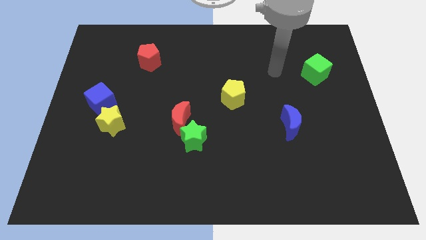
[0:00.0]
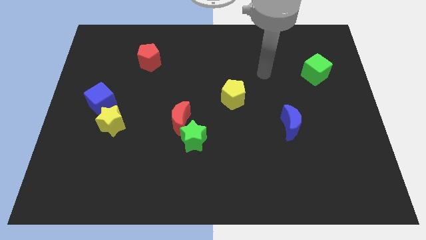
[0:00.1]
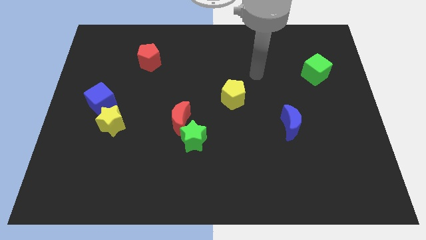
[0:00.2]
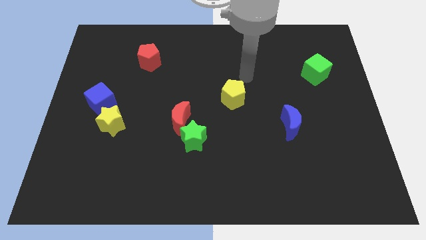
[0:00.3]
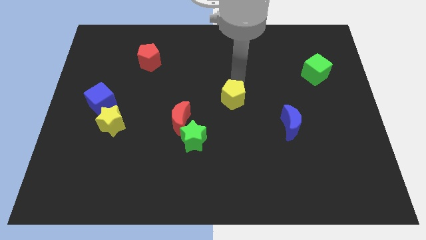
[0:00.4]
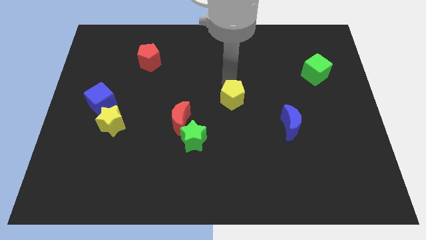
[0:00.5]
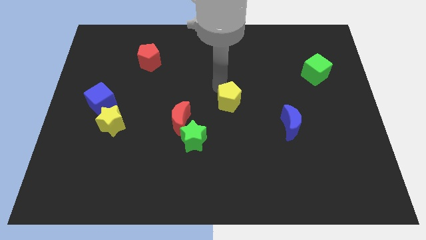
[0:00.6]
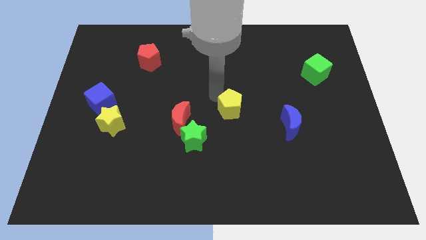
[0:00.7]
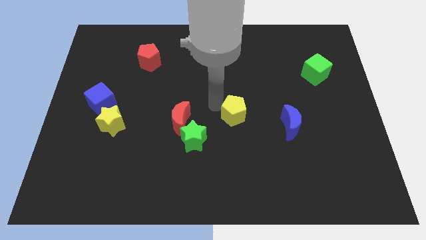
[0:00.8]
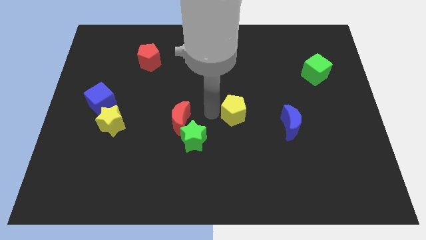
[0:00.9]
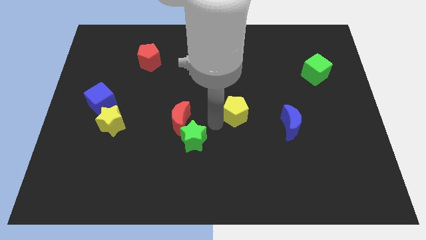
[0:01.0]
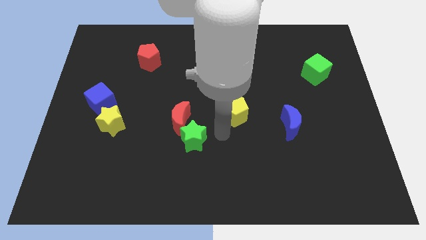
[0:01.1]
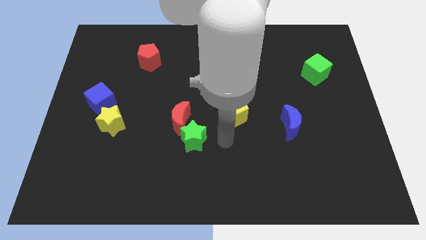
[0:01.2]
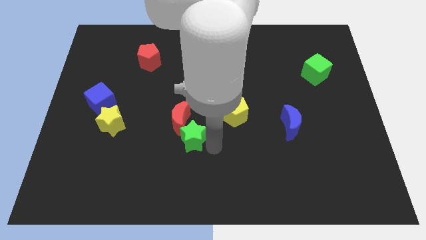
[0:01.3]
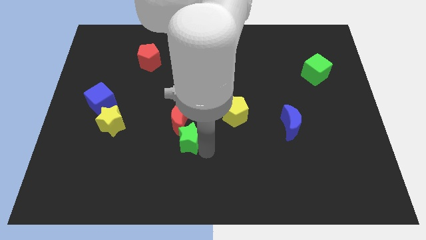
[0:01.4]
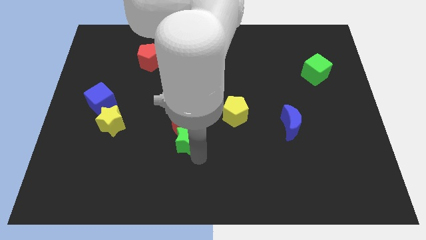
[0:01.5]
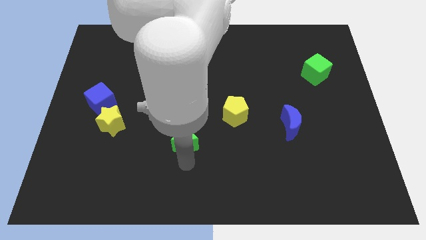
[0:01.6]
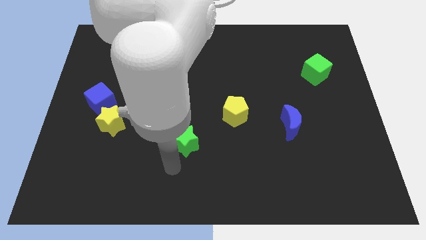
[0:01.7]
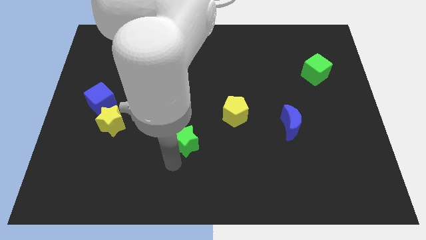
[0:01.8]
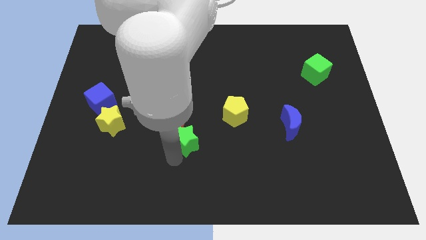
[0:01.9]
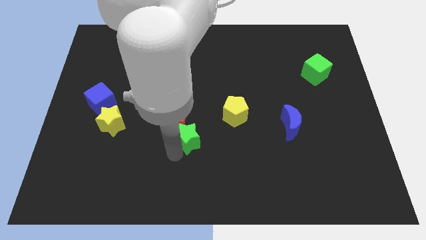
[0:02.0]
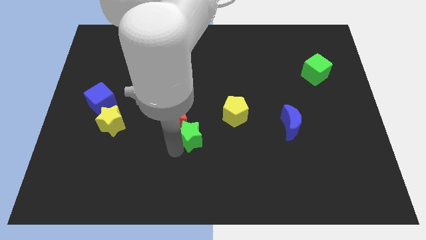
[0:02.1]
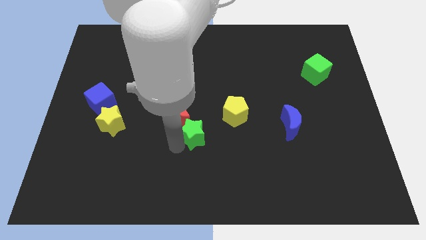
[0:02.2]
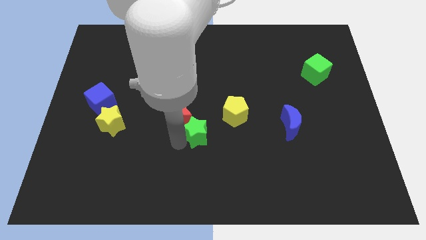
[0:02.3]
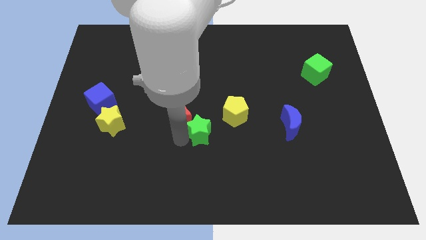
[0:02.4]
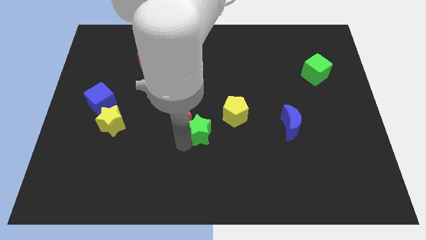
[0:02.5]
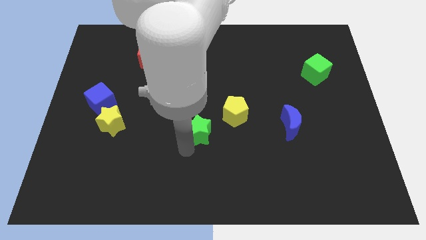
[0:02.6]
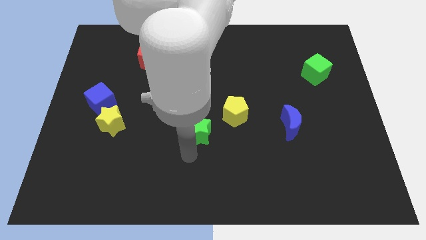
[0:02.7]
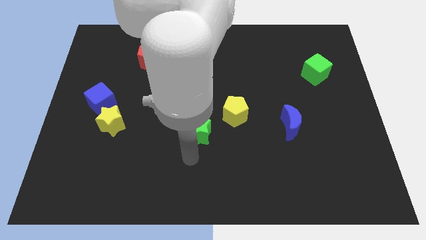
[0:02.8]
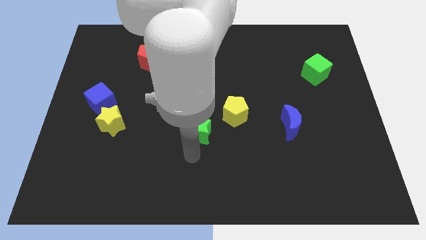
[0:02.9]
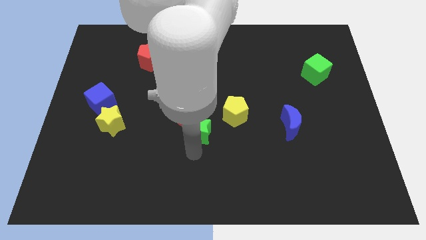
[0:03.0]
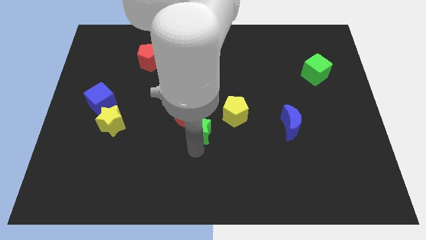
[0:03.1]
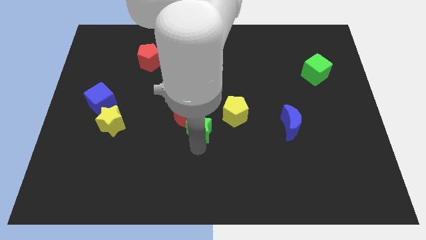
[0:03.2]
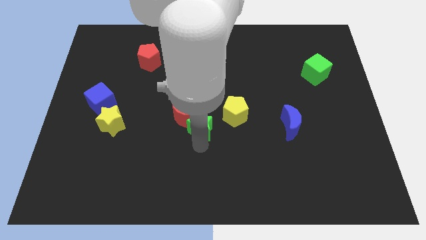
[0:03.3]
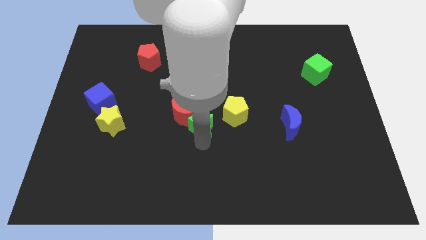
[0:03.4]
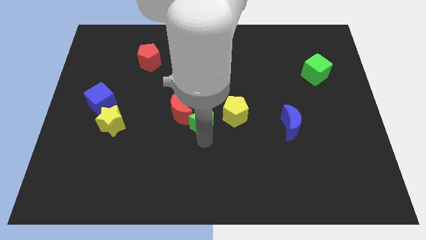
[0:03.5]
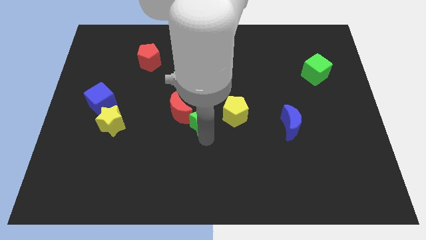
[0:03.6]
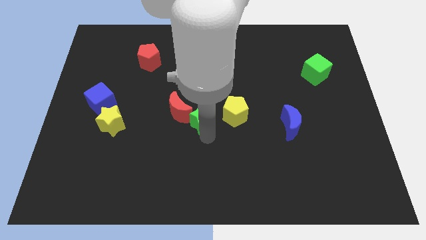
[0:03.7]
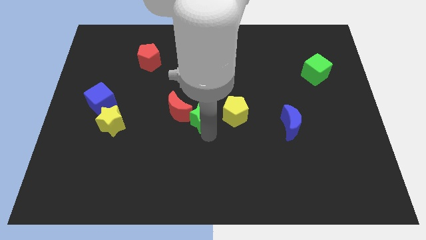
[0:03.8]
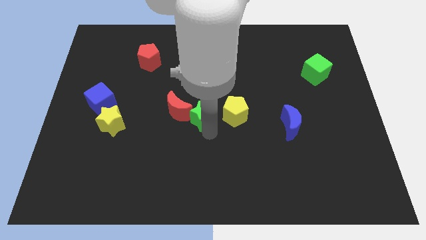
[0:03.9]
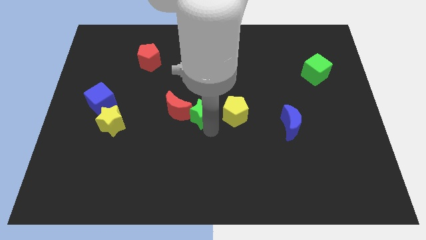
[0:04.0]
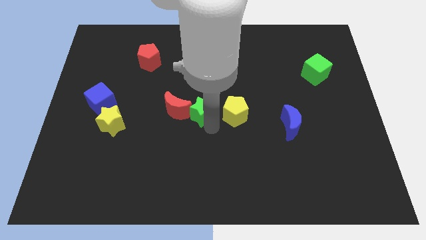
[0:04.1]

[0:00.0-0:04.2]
move the green star upwards a little bit

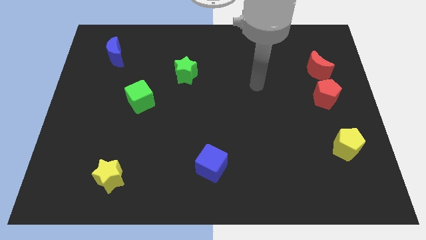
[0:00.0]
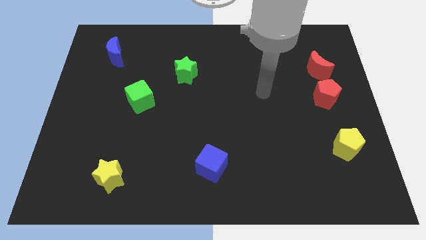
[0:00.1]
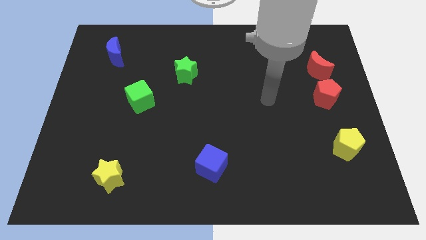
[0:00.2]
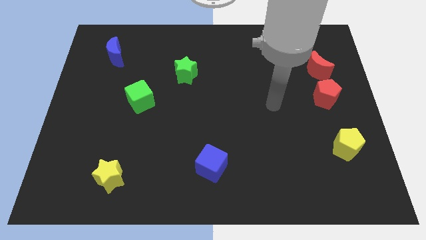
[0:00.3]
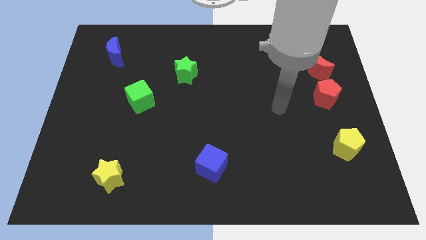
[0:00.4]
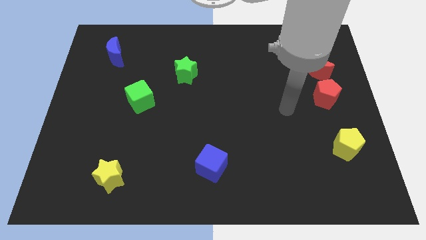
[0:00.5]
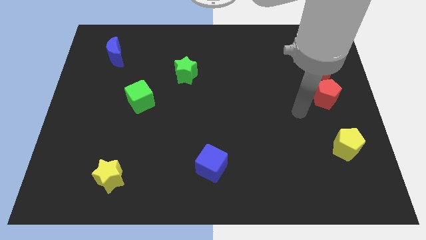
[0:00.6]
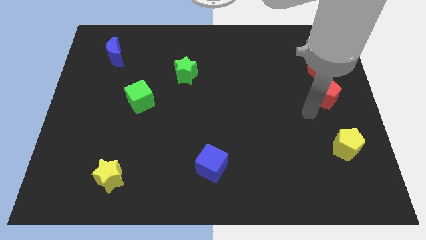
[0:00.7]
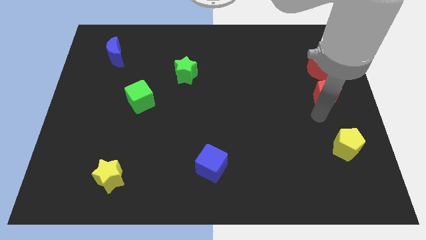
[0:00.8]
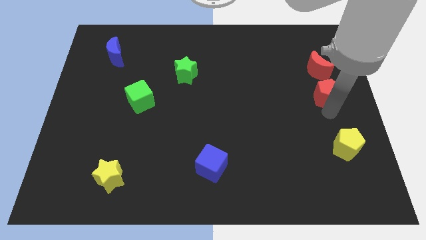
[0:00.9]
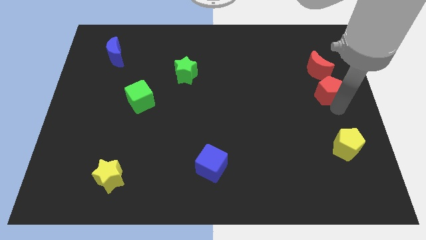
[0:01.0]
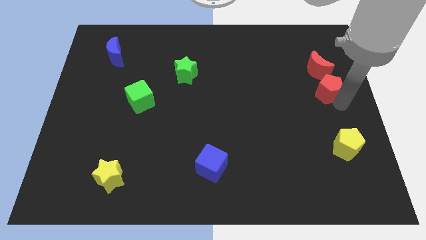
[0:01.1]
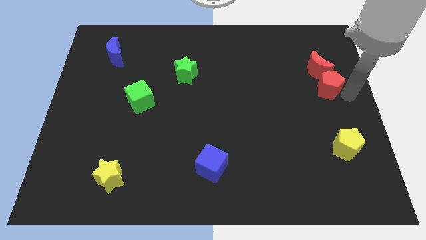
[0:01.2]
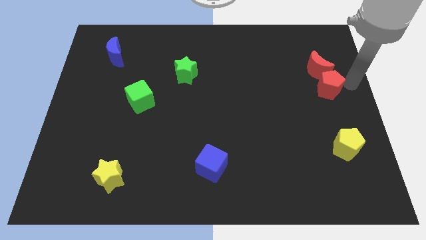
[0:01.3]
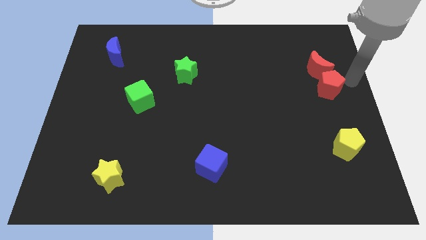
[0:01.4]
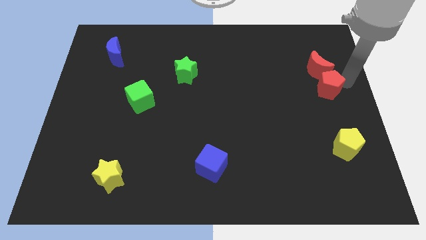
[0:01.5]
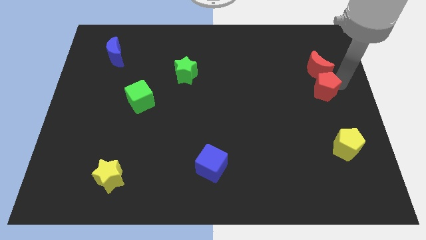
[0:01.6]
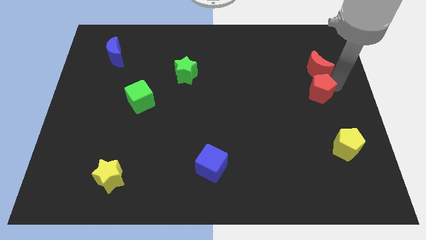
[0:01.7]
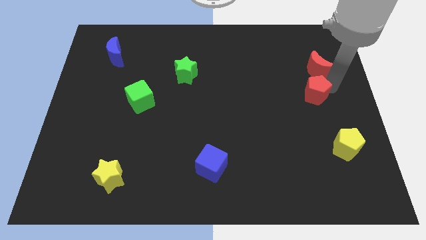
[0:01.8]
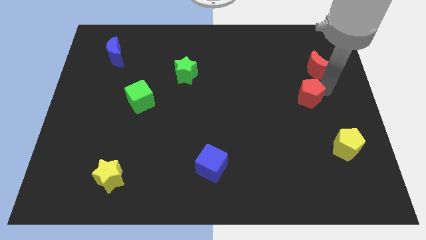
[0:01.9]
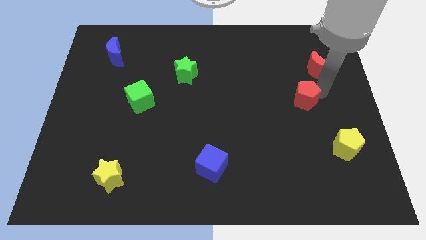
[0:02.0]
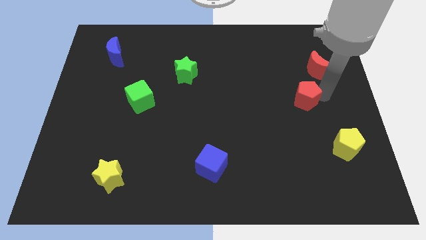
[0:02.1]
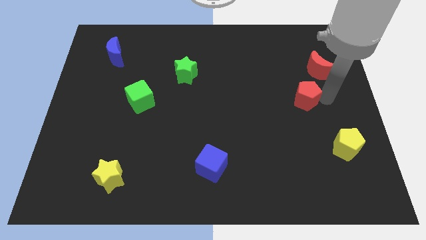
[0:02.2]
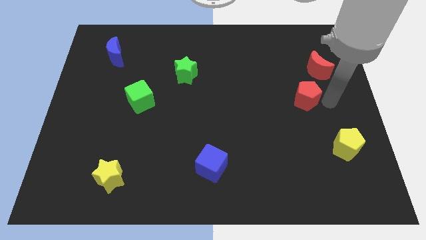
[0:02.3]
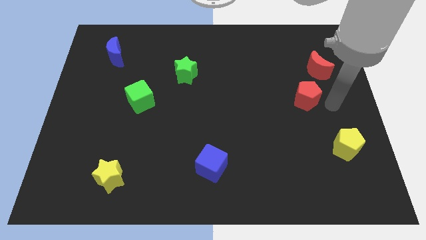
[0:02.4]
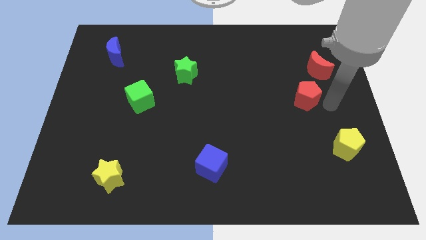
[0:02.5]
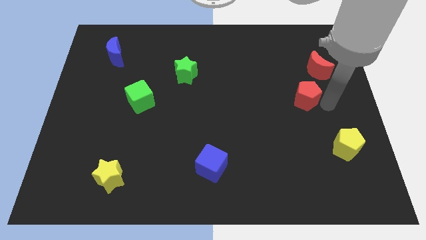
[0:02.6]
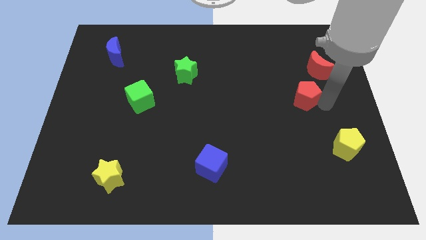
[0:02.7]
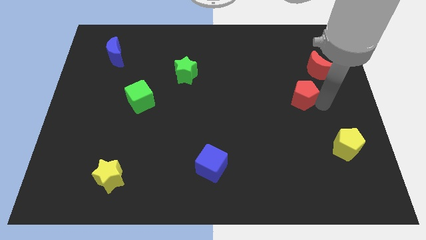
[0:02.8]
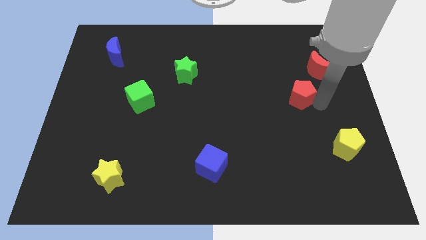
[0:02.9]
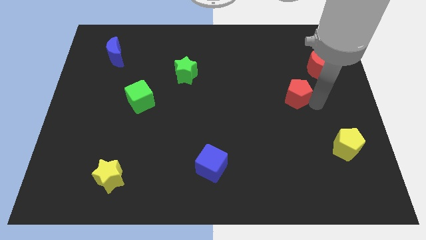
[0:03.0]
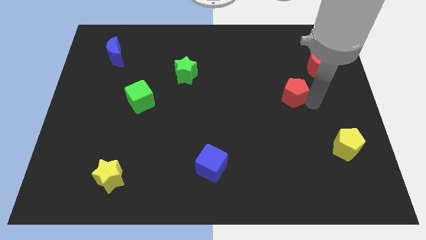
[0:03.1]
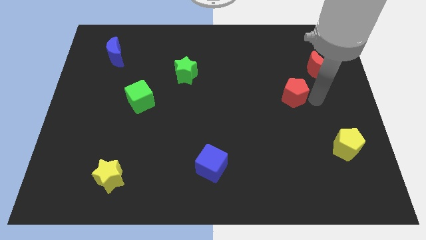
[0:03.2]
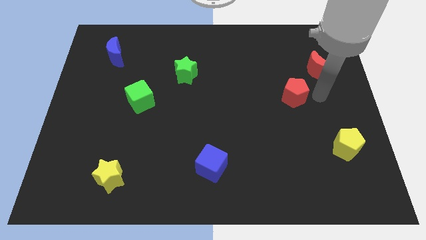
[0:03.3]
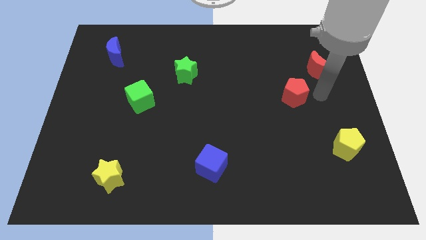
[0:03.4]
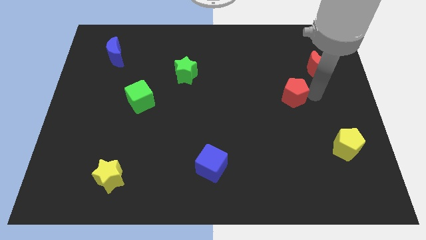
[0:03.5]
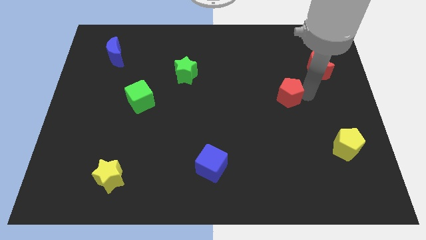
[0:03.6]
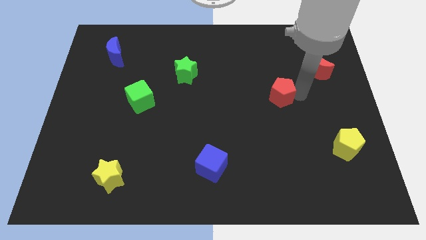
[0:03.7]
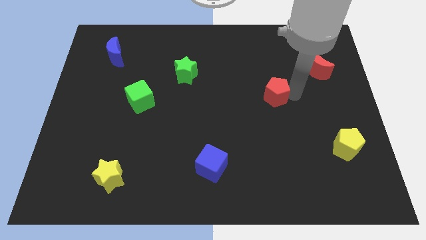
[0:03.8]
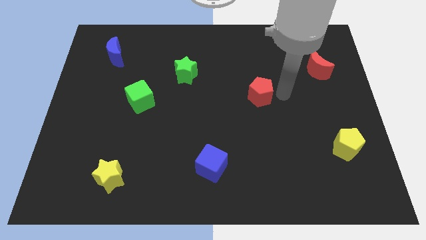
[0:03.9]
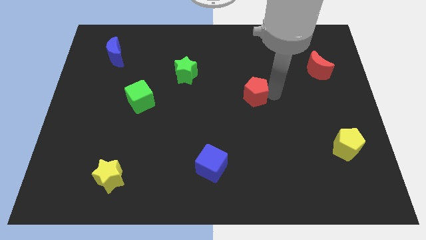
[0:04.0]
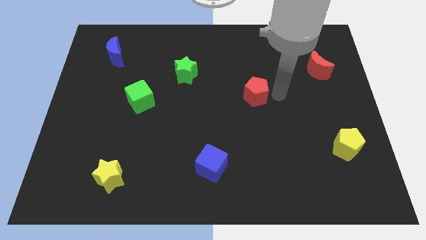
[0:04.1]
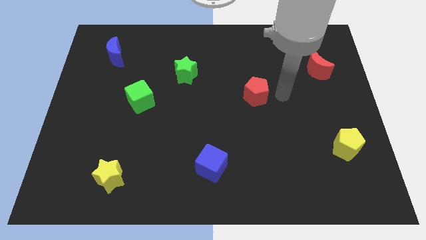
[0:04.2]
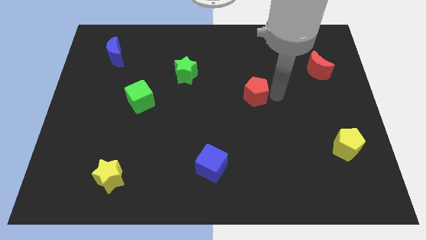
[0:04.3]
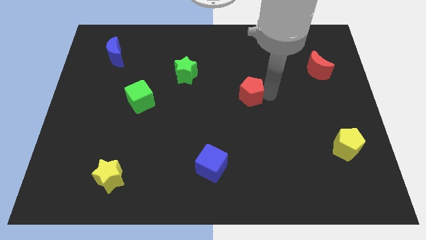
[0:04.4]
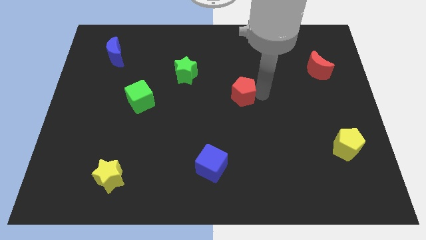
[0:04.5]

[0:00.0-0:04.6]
slide the red pentagon to the left
